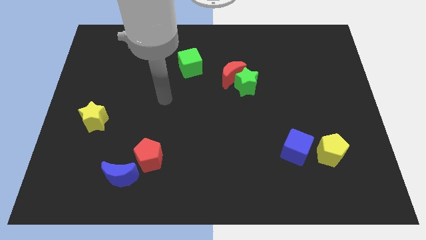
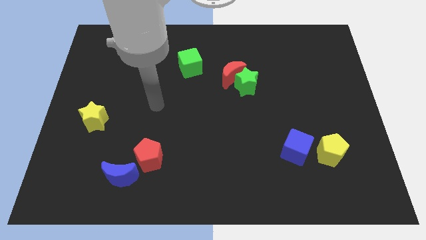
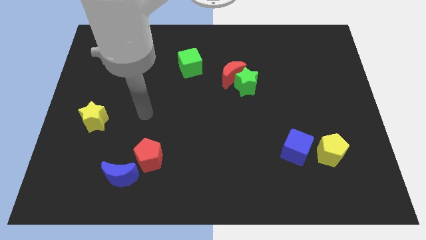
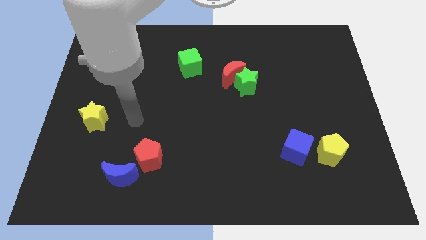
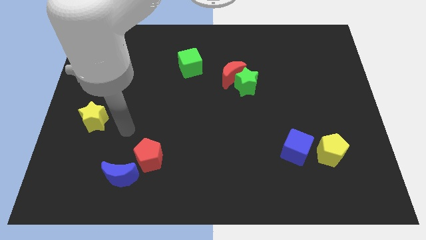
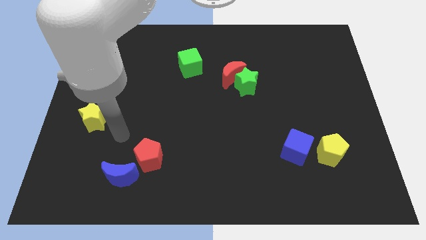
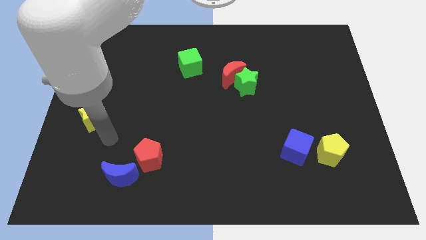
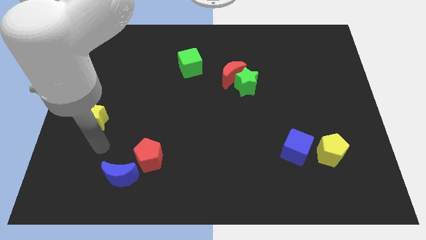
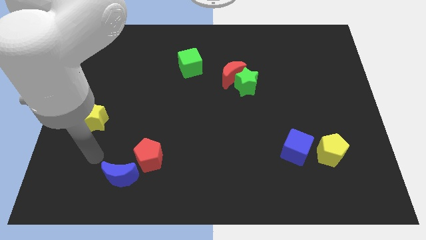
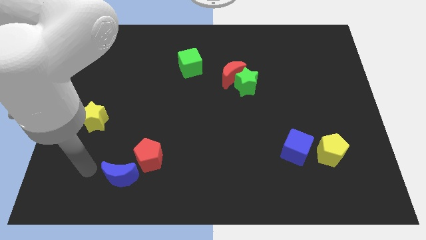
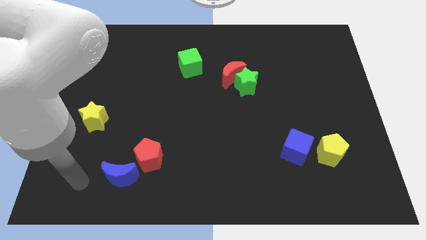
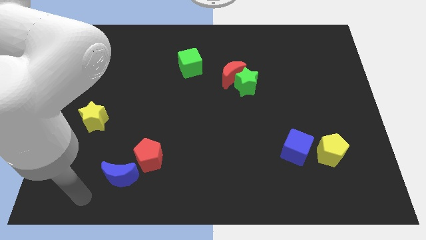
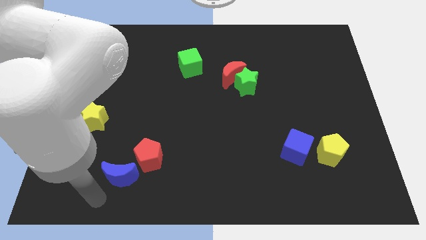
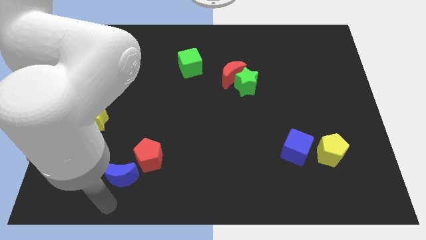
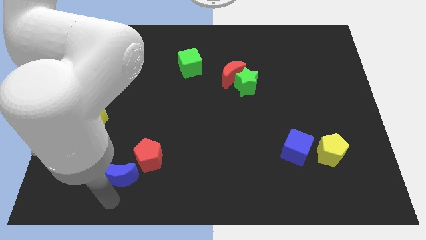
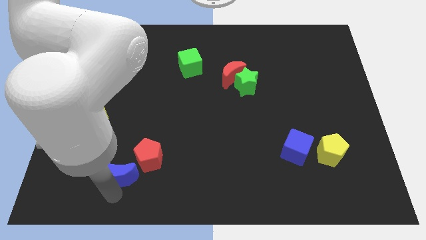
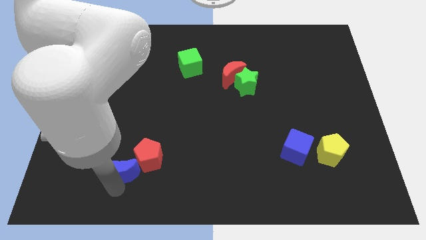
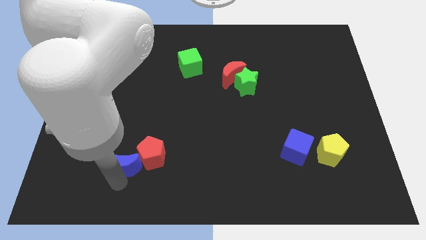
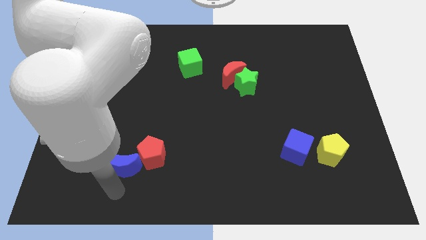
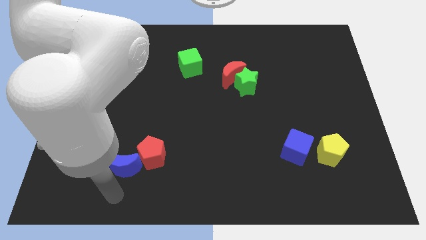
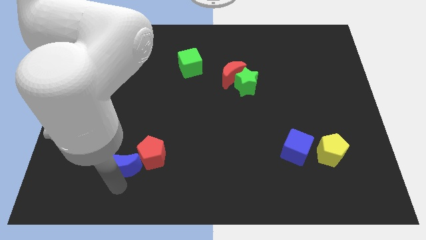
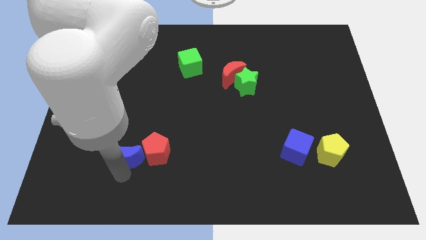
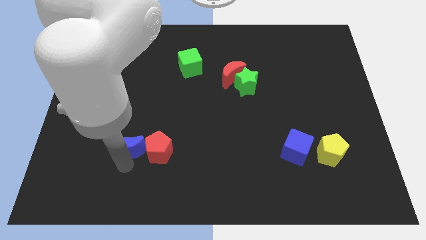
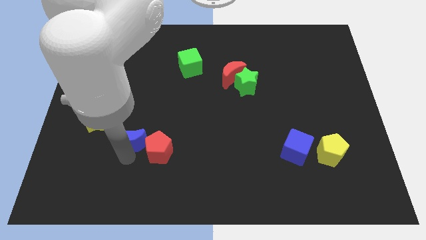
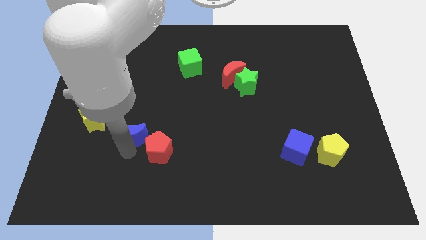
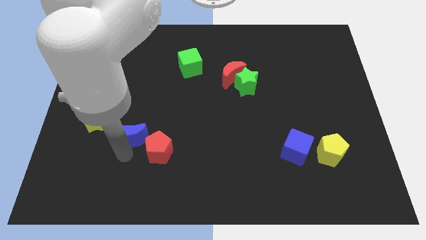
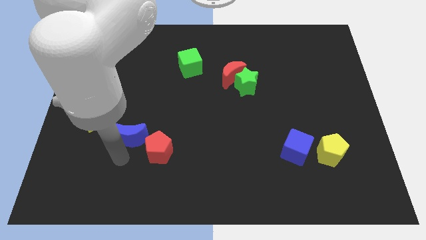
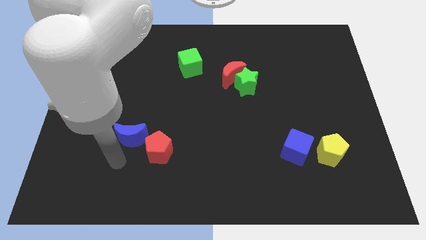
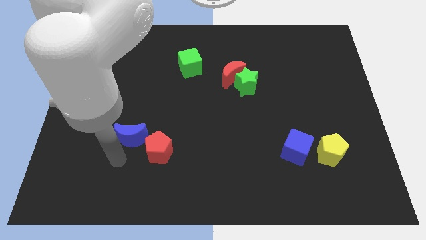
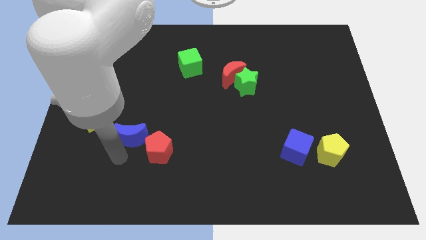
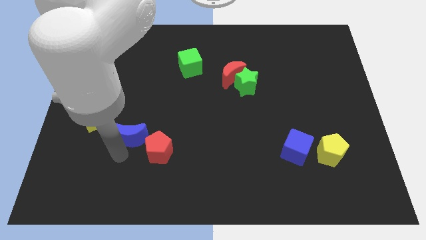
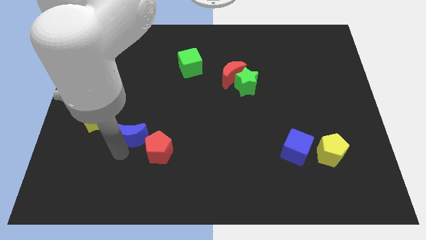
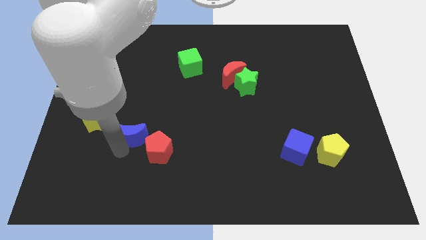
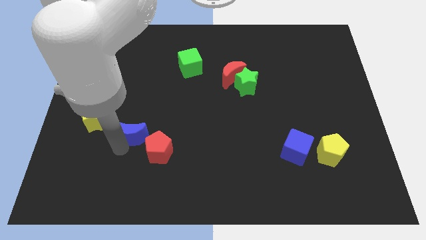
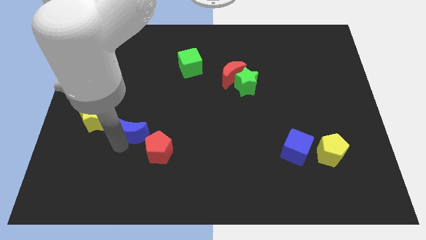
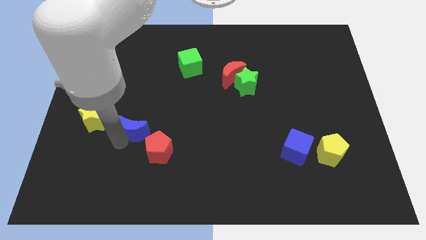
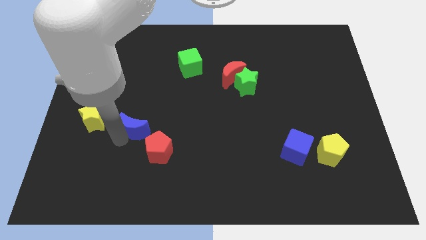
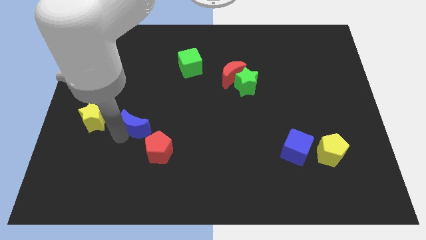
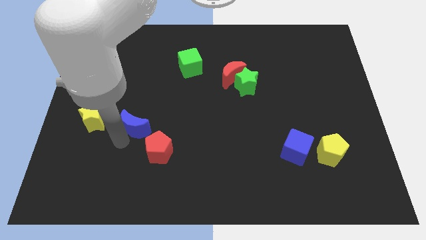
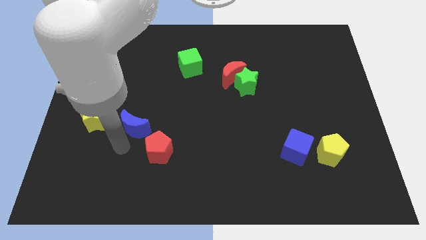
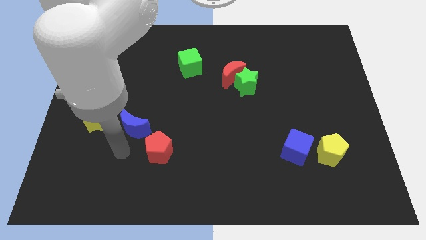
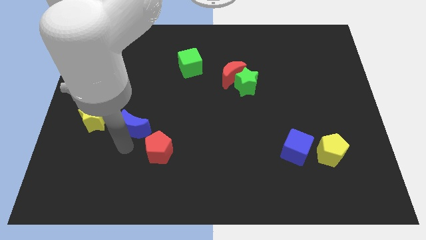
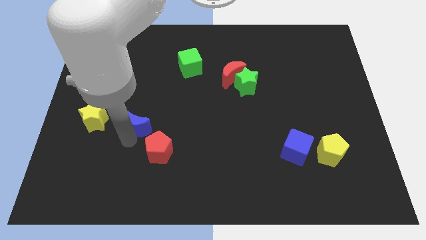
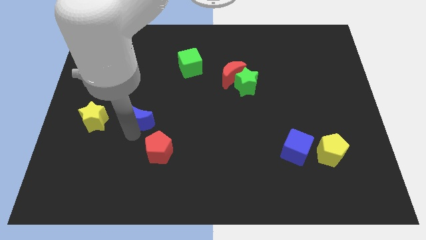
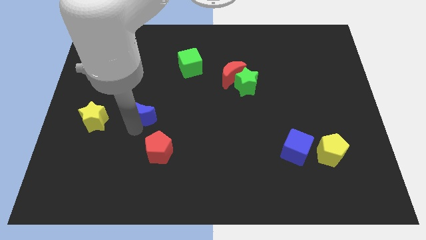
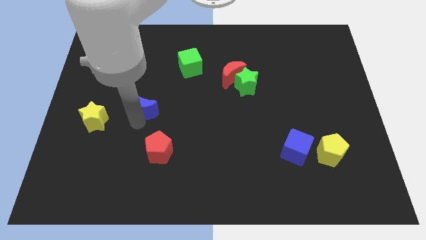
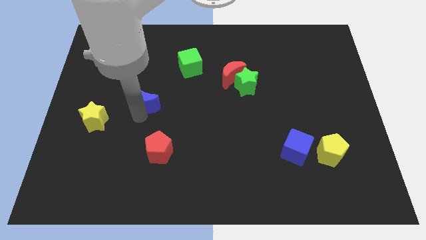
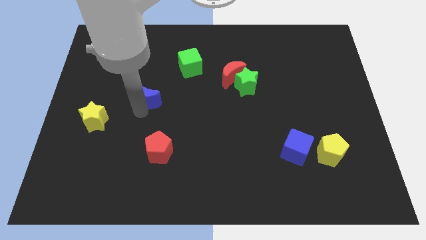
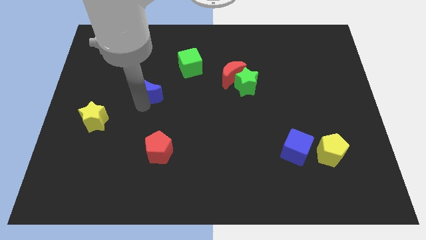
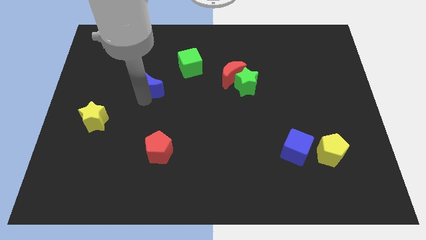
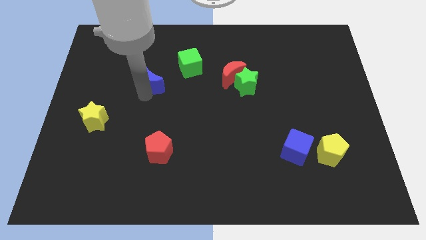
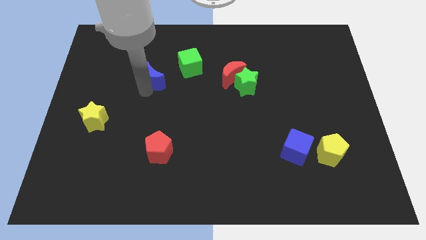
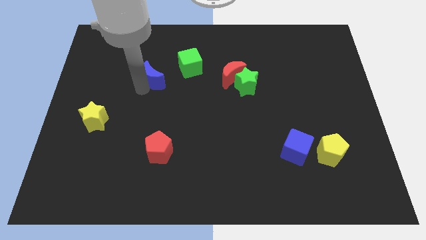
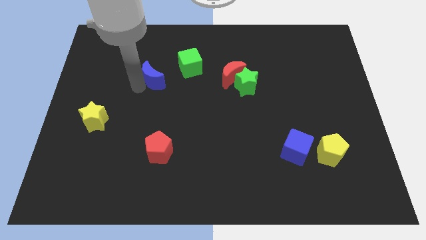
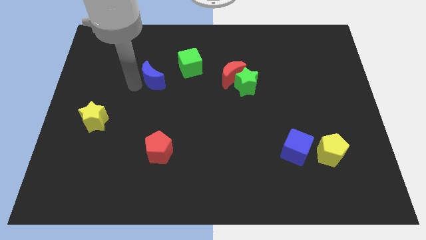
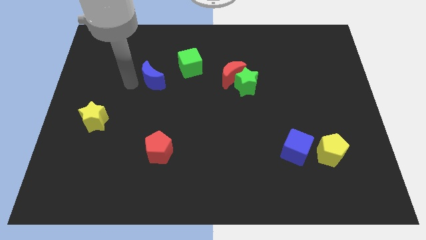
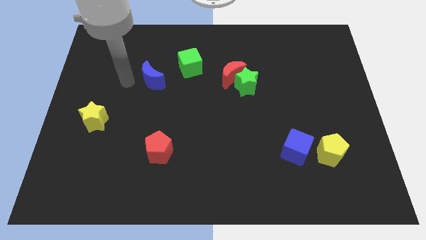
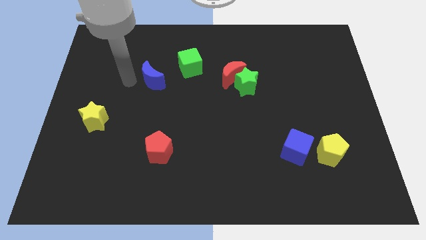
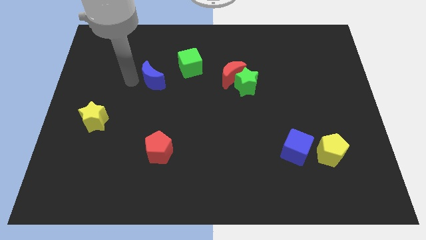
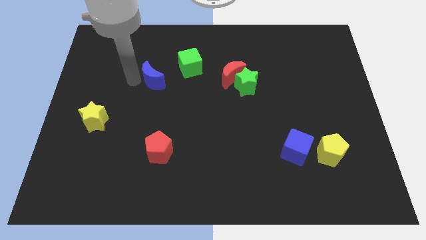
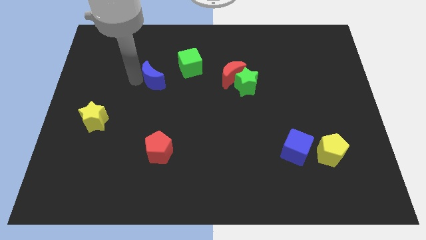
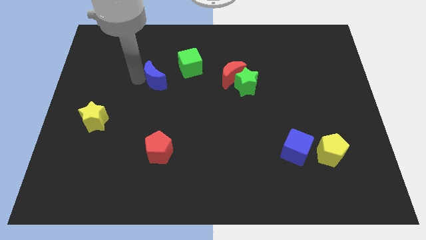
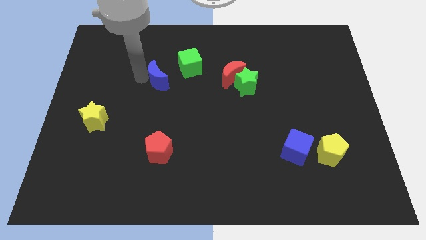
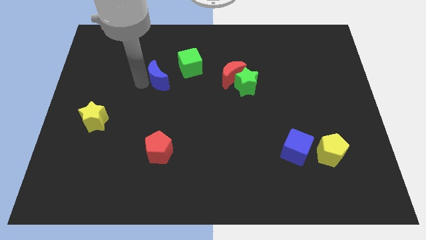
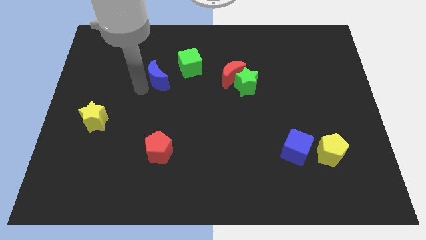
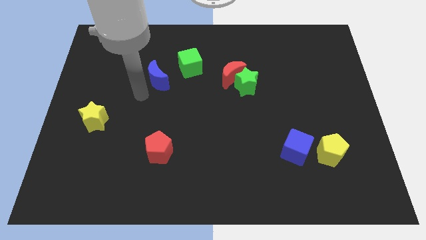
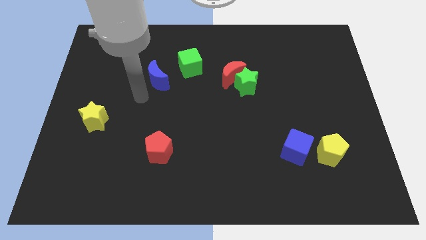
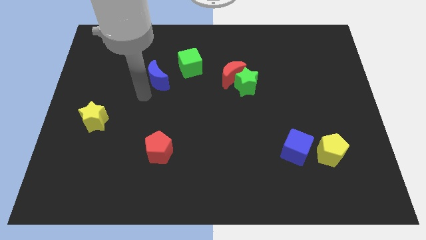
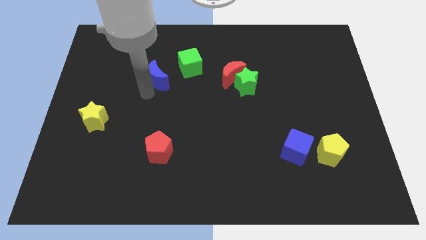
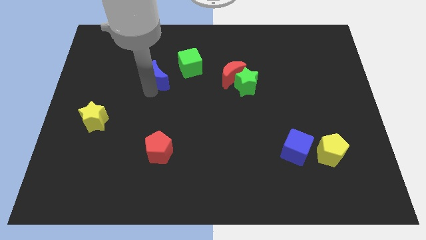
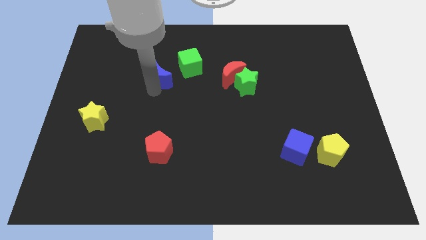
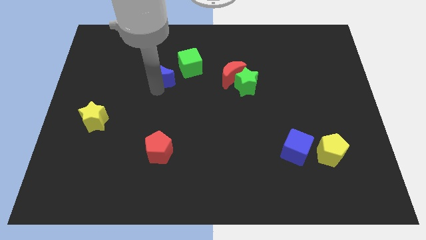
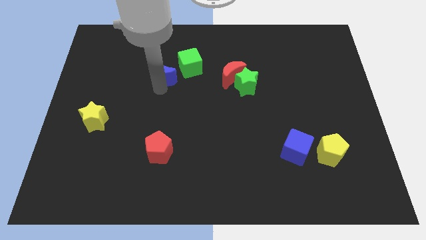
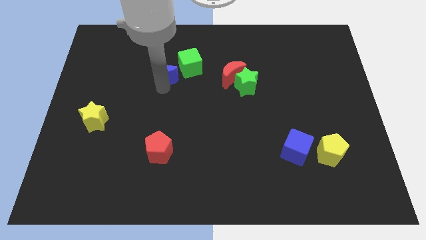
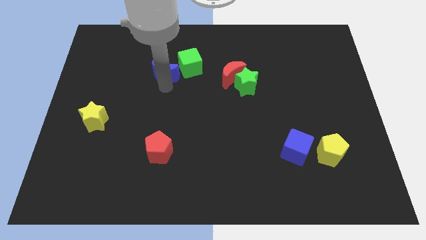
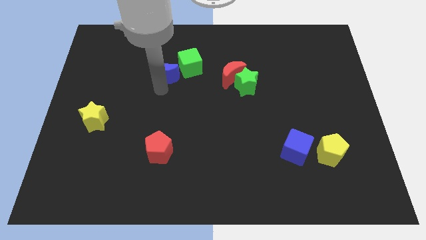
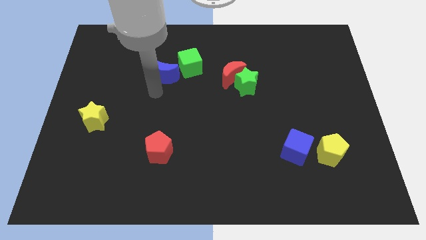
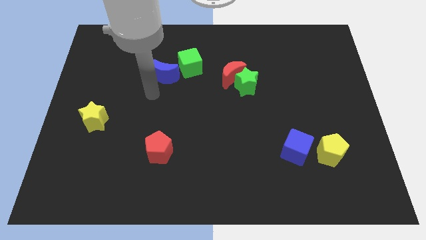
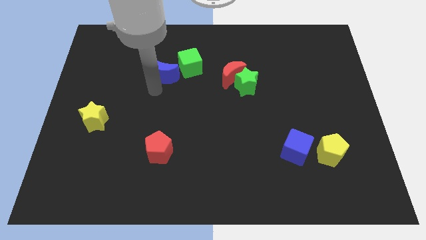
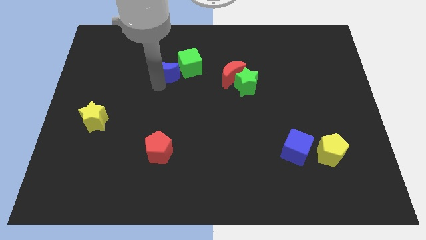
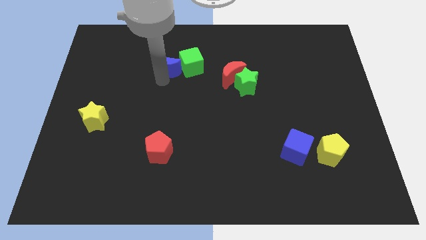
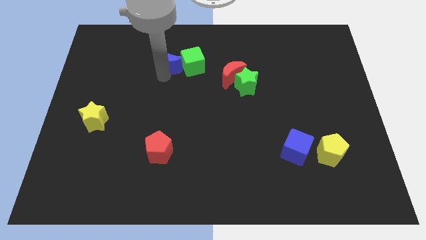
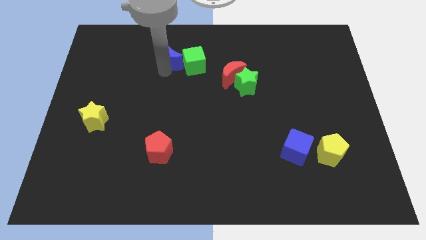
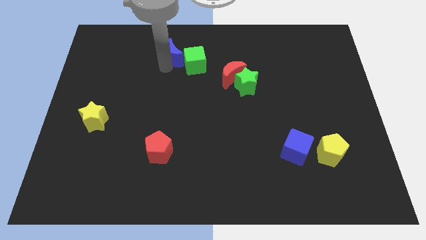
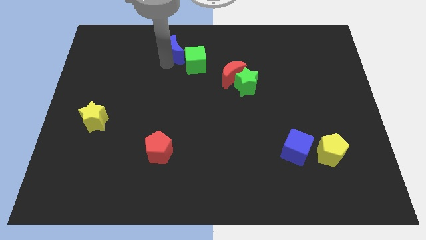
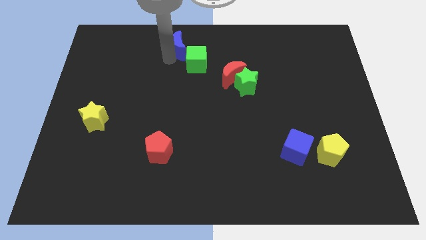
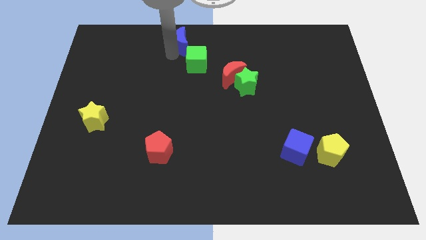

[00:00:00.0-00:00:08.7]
put the blue moon to the top side
